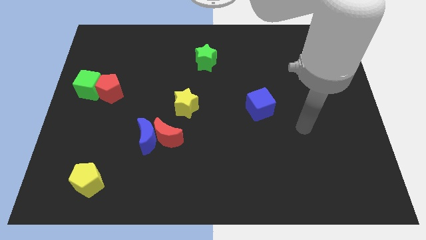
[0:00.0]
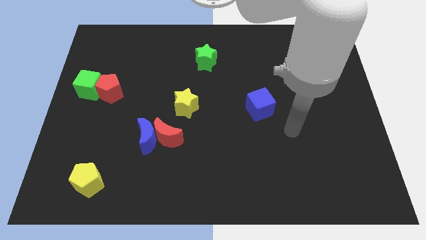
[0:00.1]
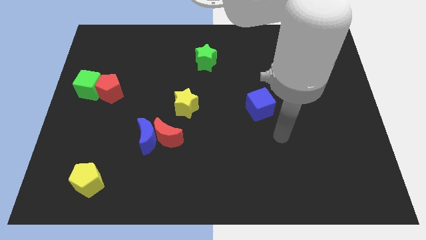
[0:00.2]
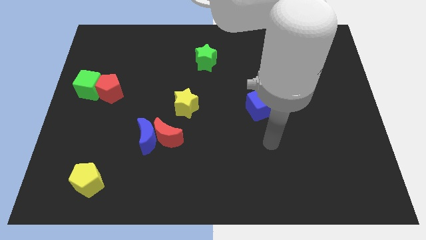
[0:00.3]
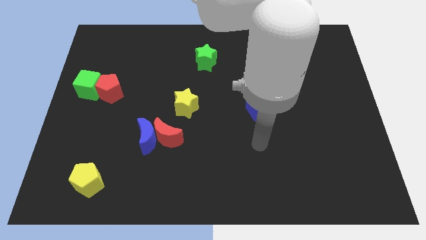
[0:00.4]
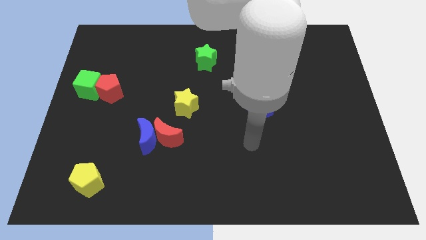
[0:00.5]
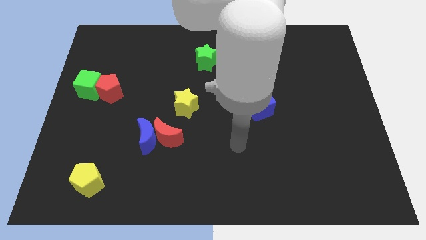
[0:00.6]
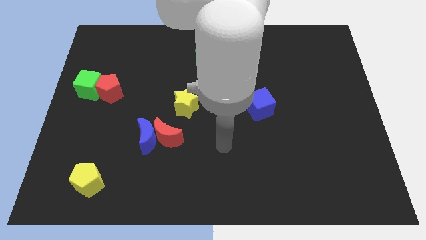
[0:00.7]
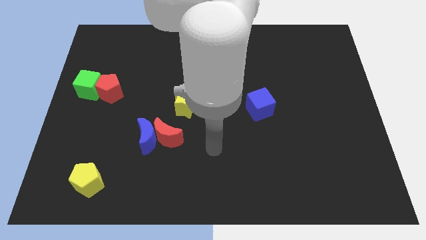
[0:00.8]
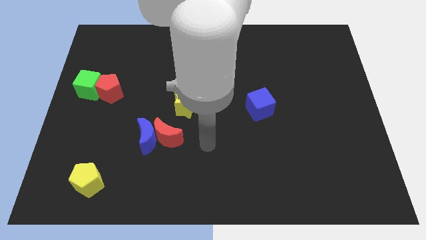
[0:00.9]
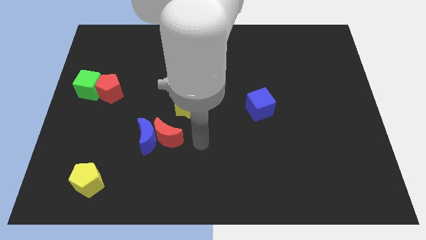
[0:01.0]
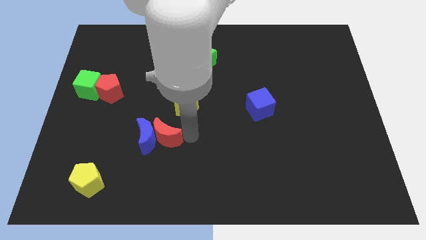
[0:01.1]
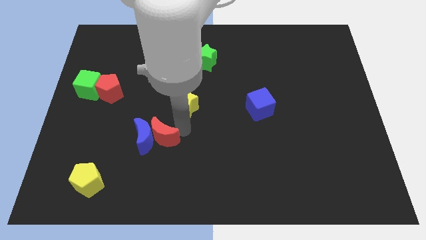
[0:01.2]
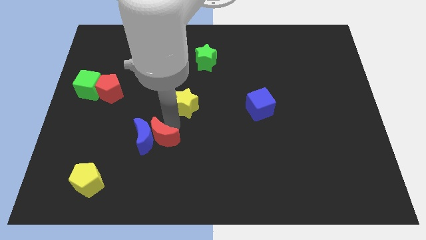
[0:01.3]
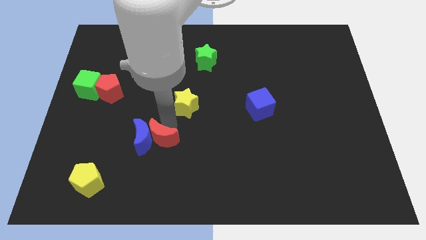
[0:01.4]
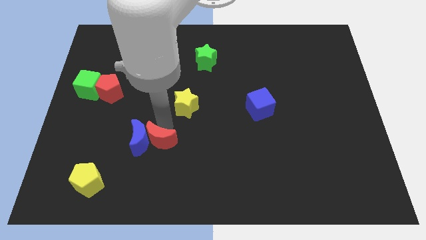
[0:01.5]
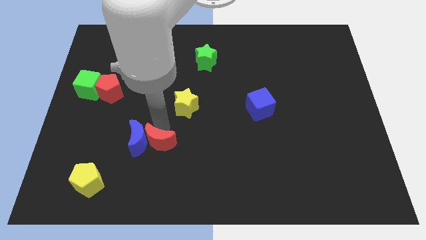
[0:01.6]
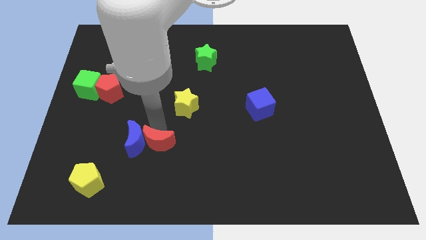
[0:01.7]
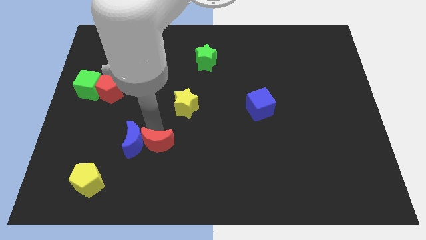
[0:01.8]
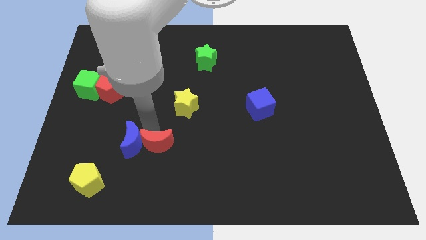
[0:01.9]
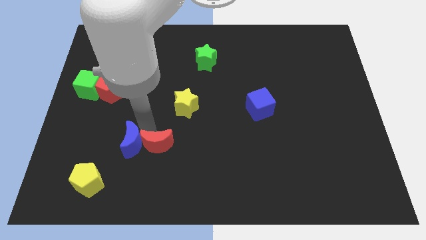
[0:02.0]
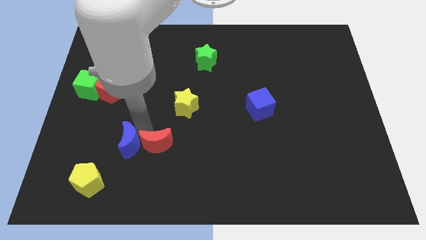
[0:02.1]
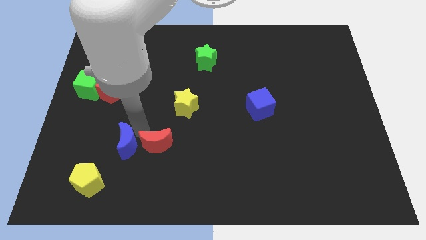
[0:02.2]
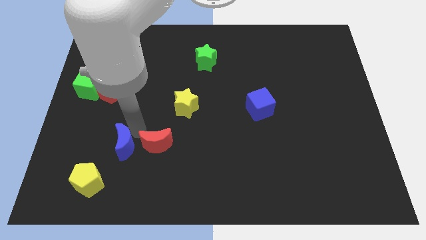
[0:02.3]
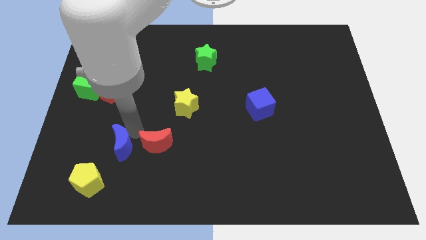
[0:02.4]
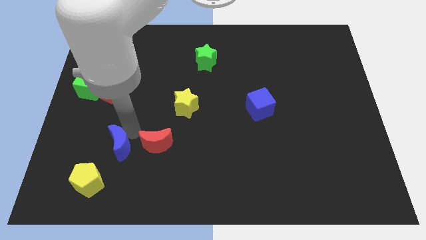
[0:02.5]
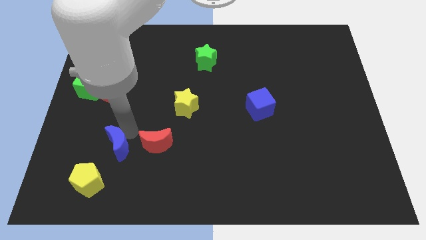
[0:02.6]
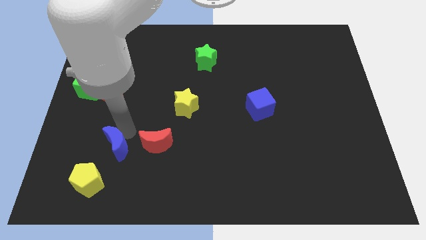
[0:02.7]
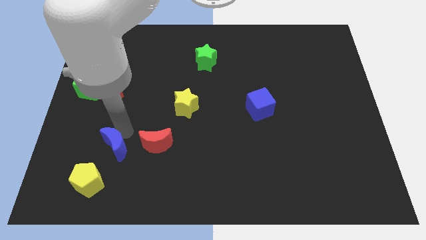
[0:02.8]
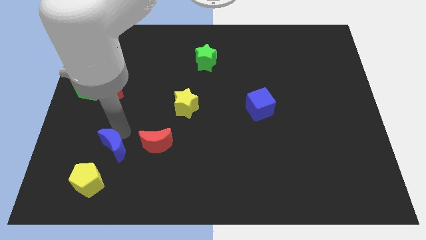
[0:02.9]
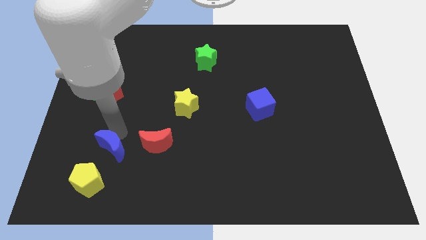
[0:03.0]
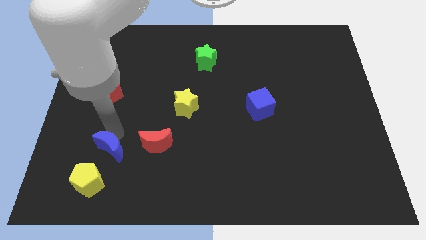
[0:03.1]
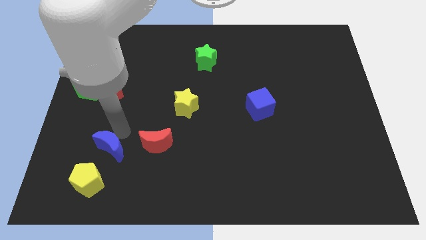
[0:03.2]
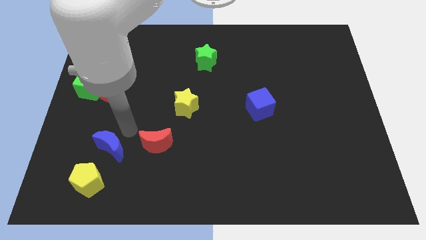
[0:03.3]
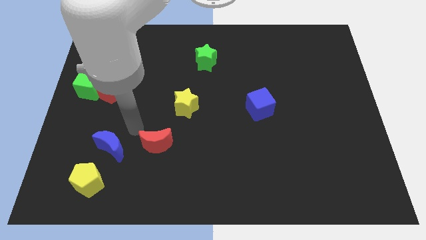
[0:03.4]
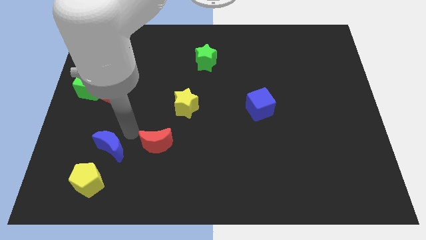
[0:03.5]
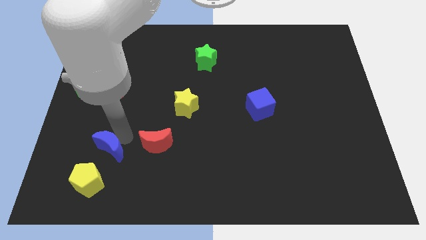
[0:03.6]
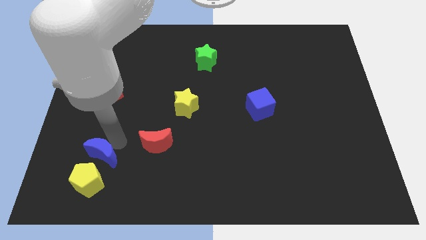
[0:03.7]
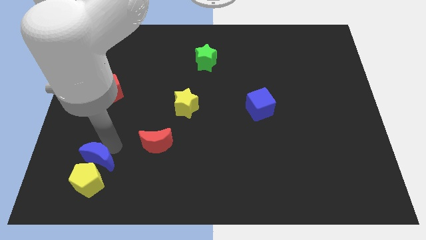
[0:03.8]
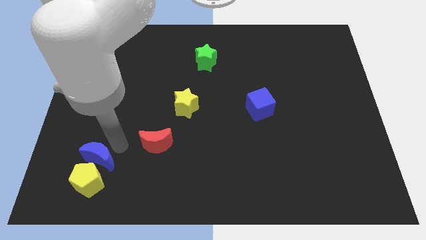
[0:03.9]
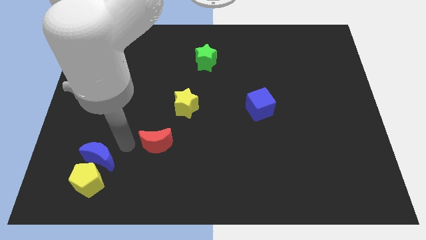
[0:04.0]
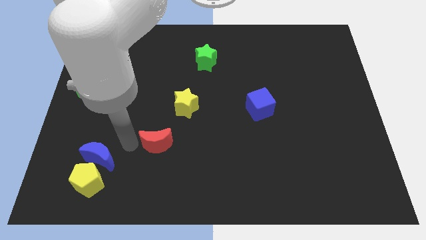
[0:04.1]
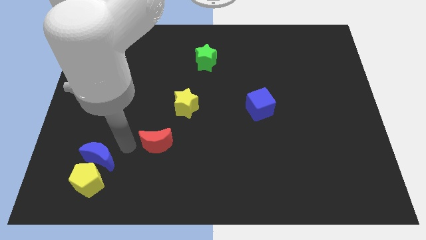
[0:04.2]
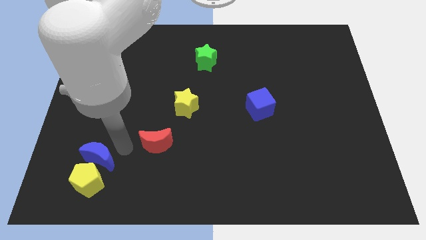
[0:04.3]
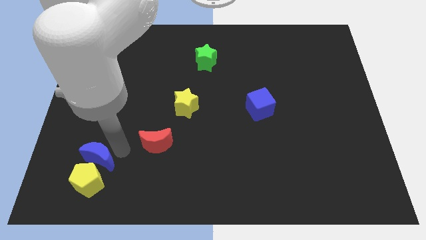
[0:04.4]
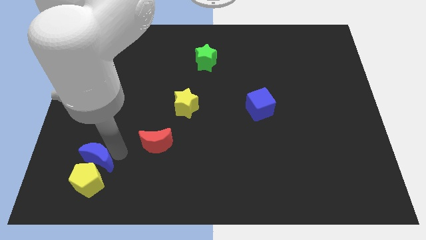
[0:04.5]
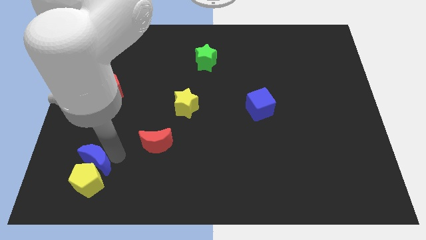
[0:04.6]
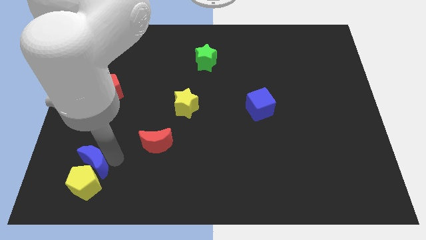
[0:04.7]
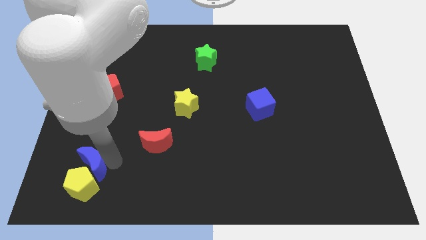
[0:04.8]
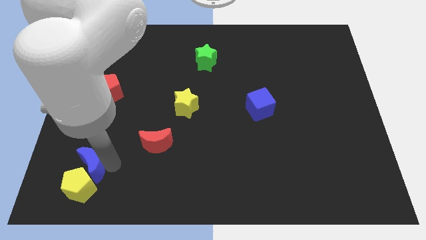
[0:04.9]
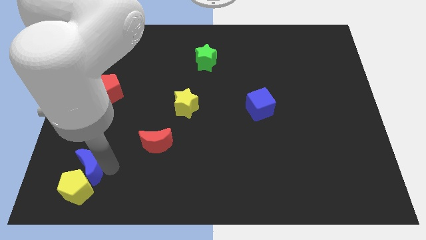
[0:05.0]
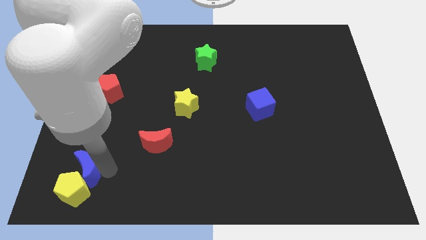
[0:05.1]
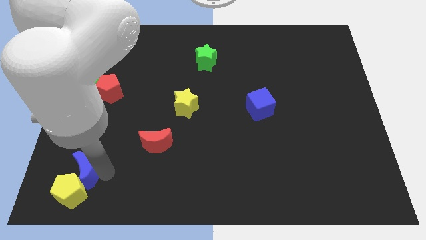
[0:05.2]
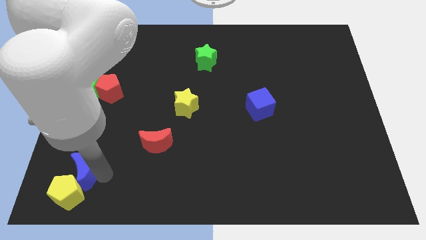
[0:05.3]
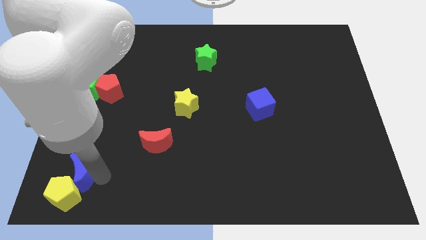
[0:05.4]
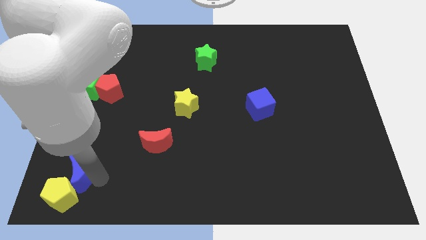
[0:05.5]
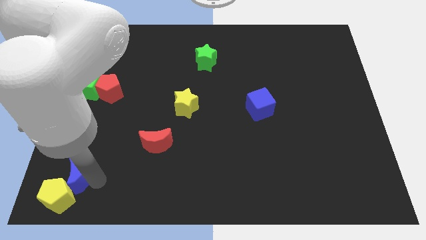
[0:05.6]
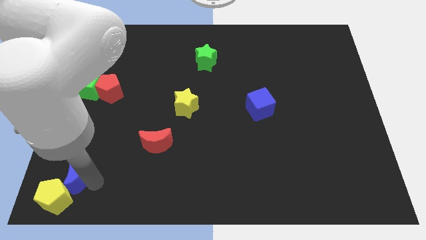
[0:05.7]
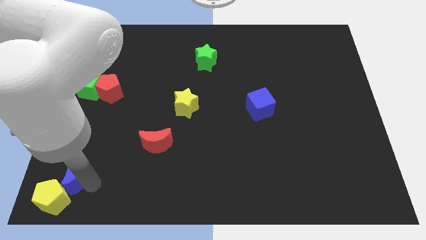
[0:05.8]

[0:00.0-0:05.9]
slide the blue moon to the bottom left corner
